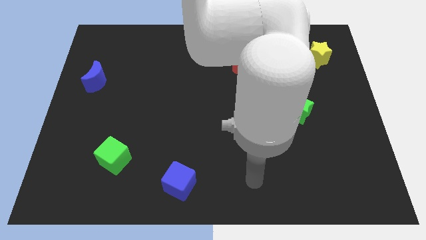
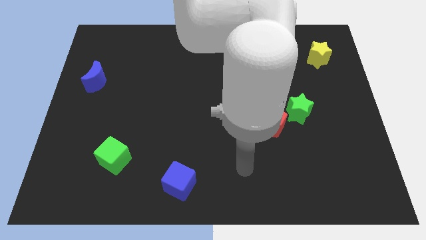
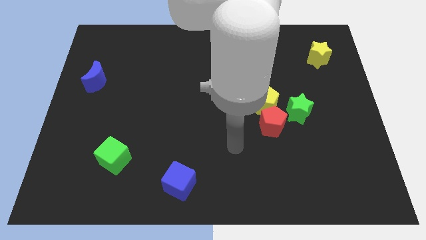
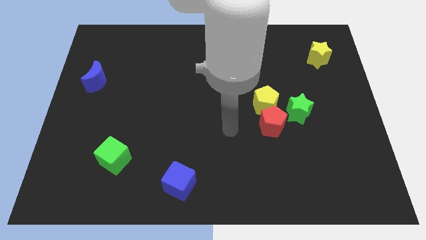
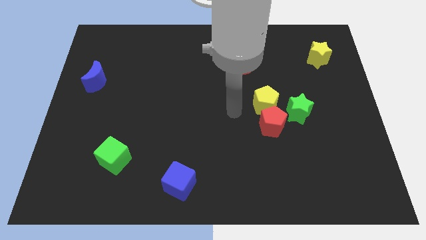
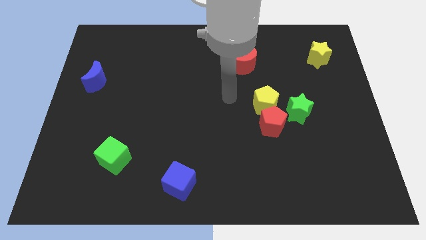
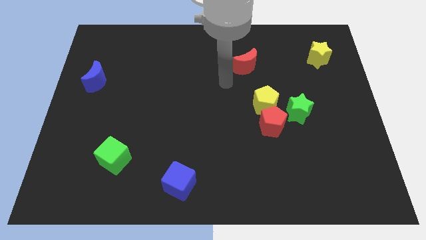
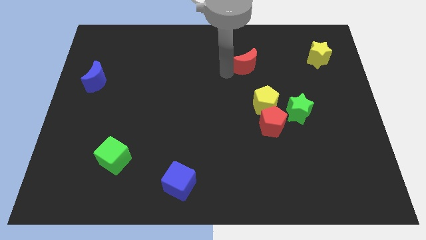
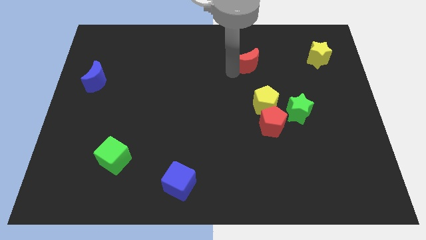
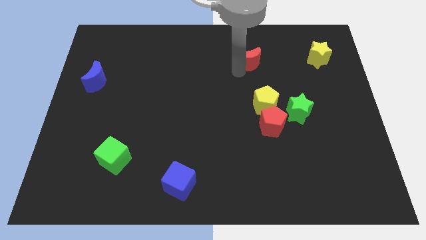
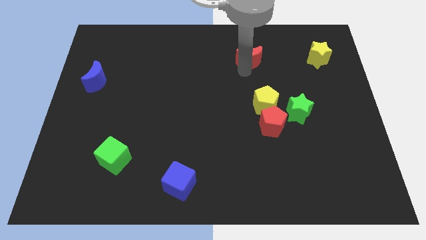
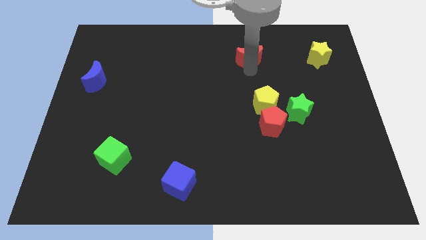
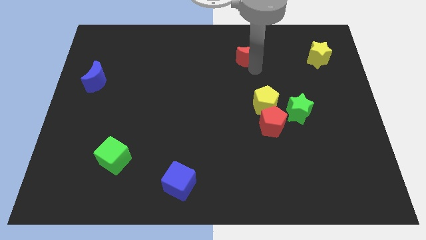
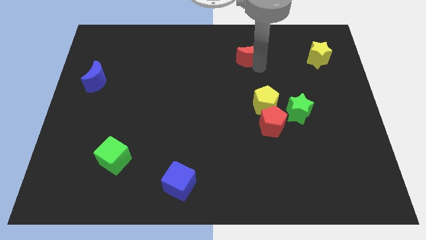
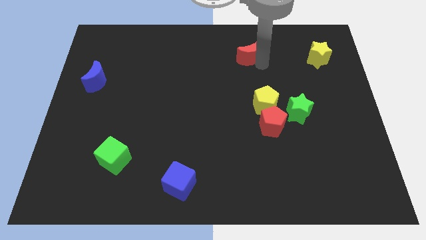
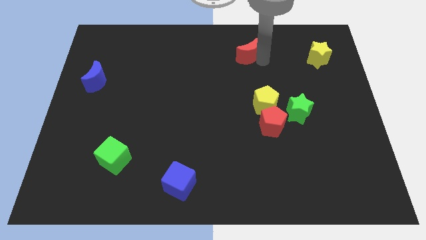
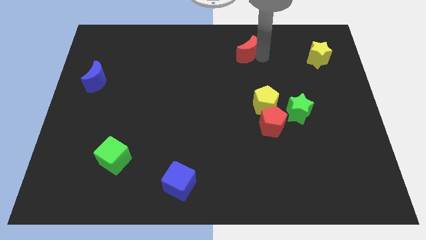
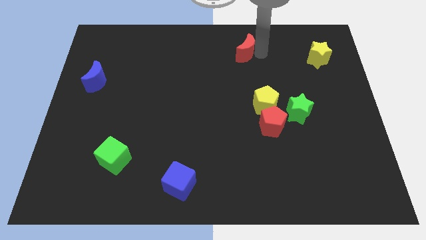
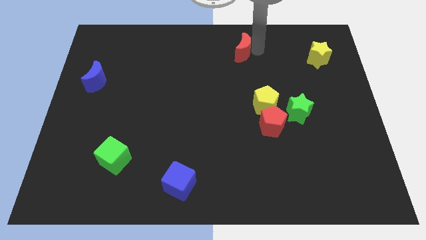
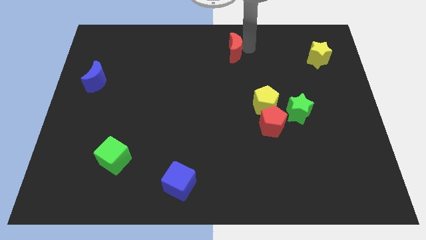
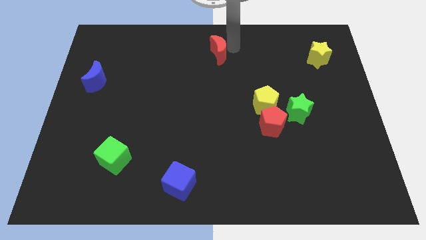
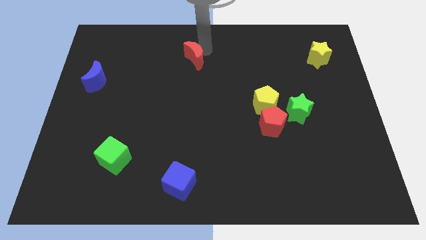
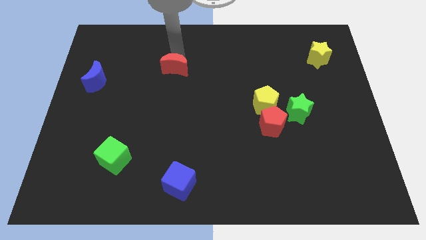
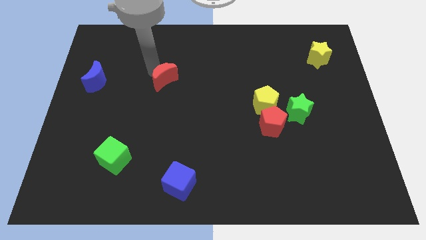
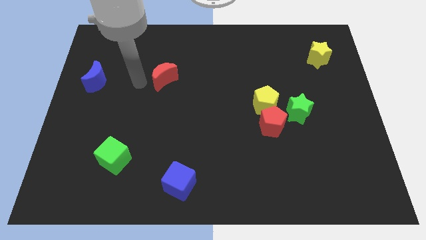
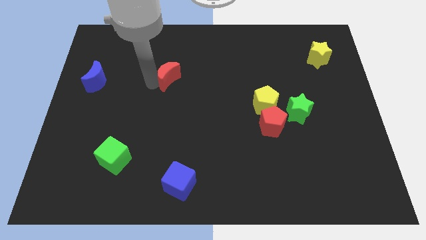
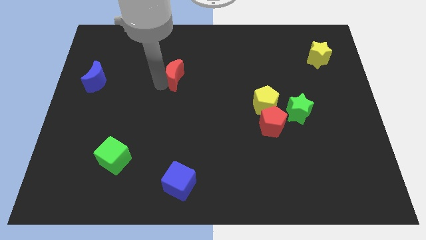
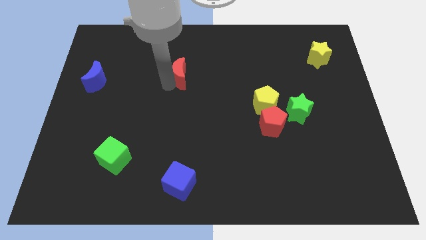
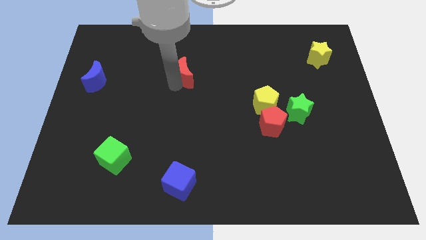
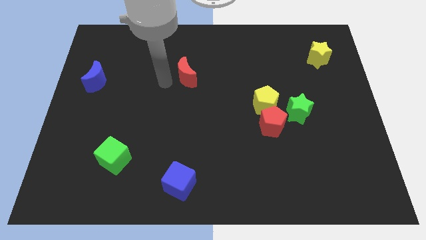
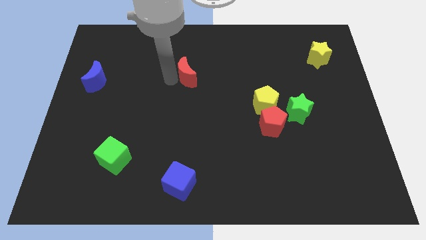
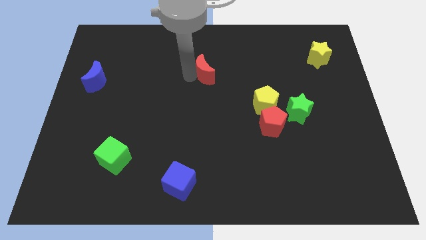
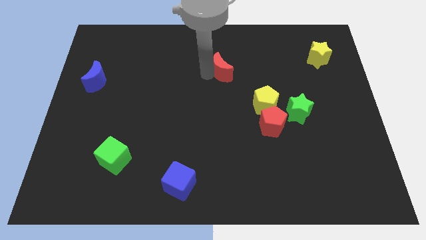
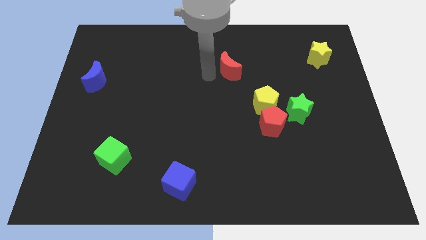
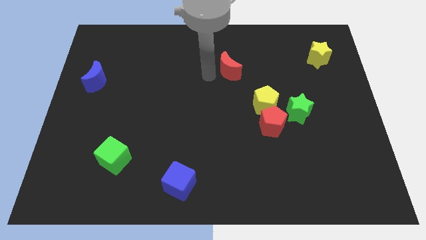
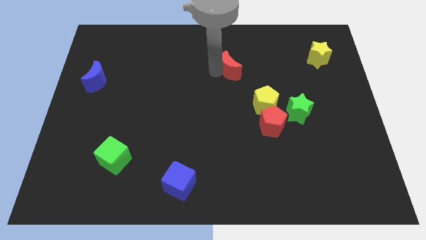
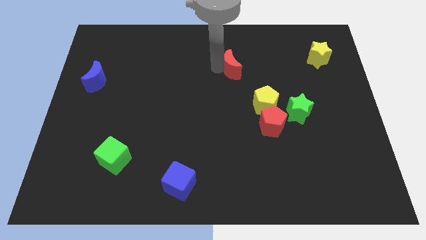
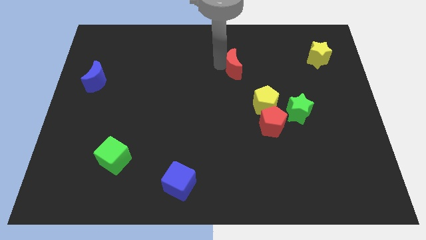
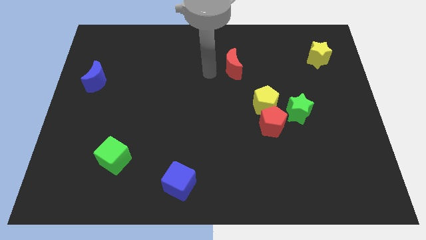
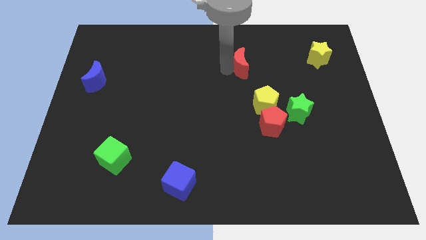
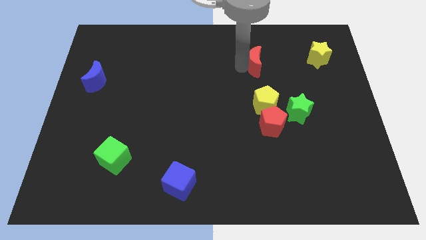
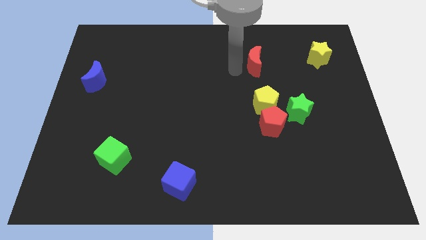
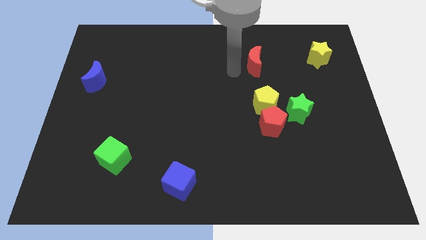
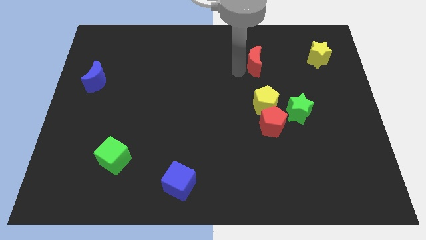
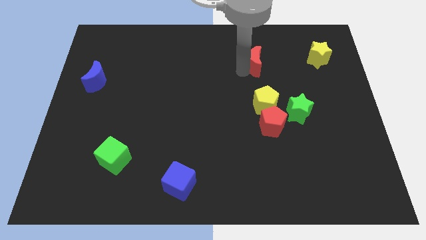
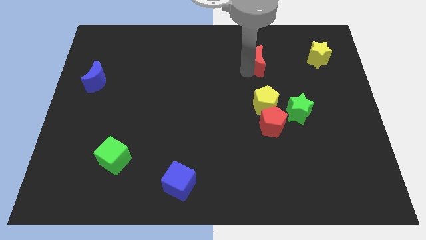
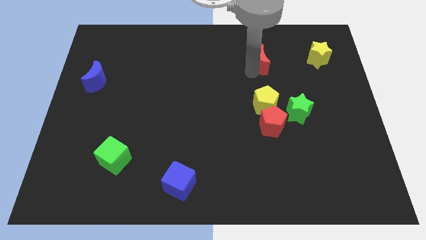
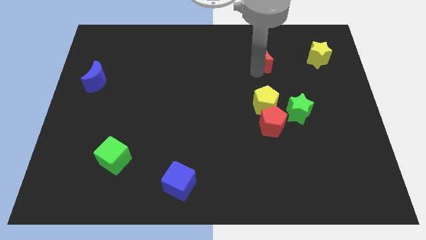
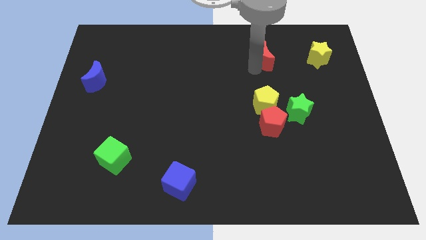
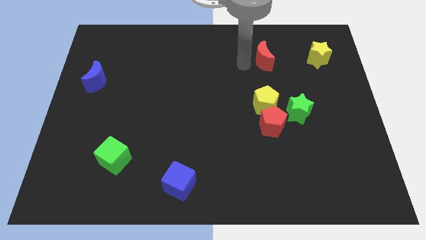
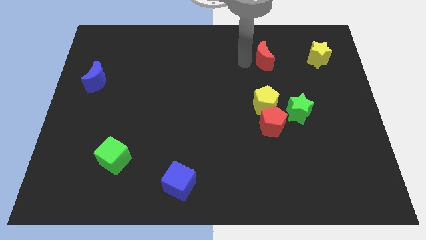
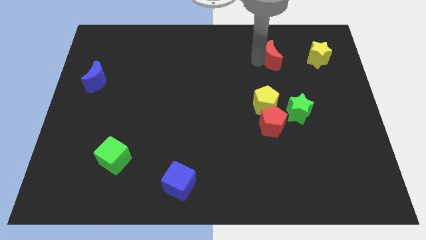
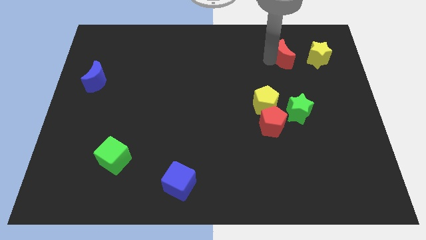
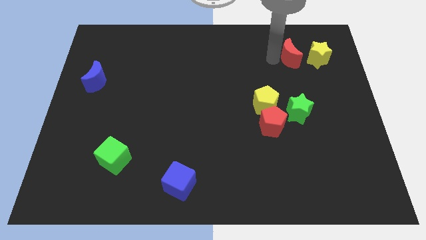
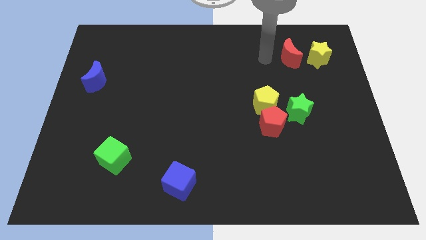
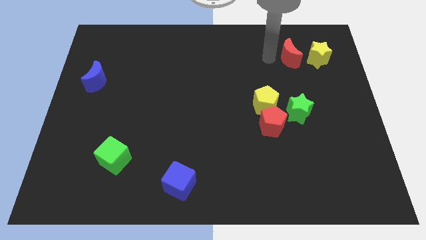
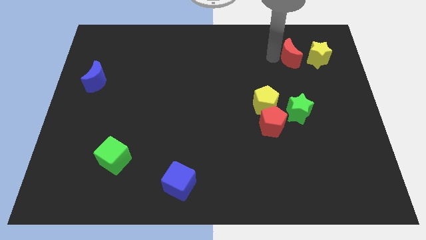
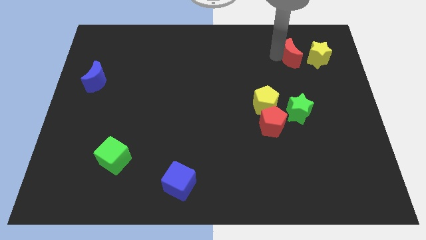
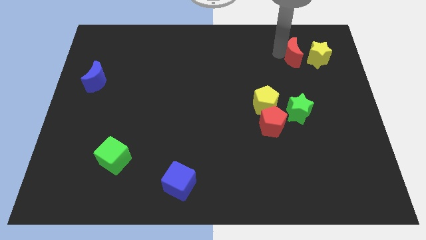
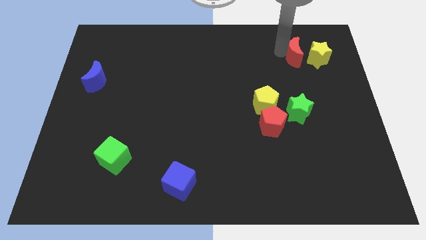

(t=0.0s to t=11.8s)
slide the red moon to the yellow star
